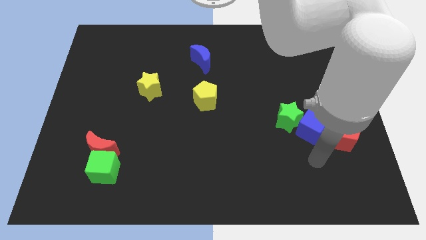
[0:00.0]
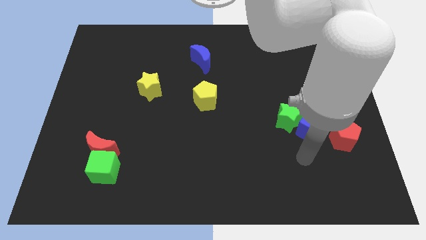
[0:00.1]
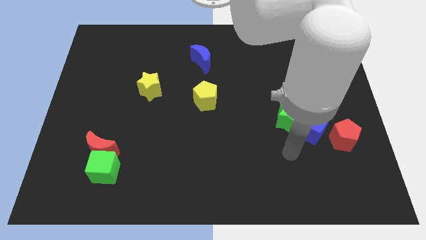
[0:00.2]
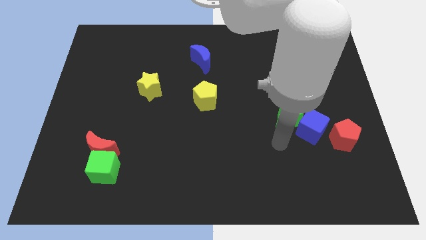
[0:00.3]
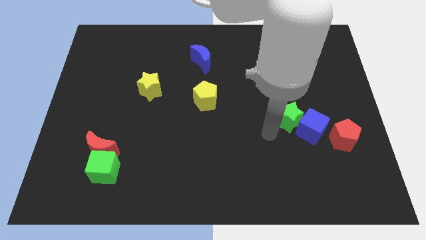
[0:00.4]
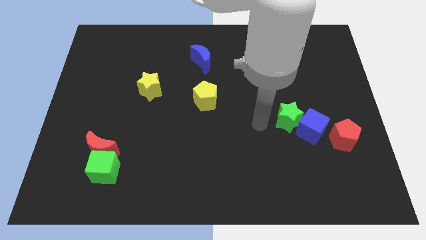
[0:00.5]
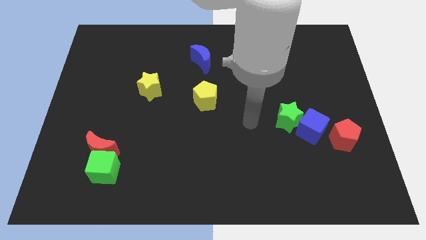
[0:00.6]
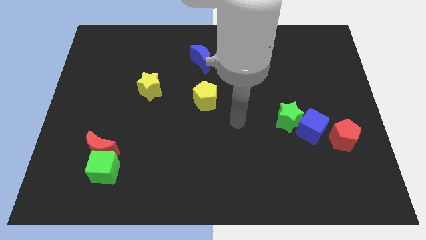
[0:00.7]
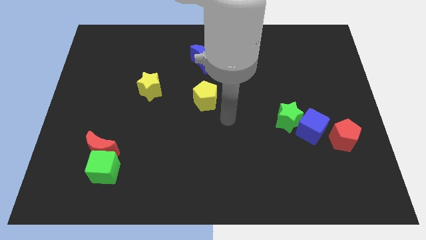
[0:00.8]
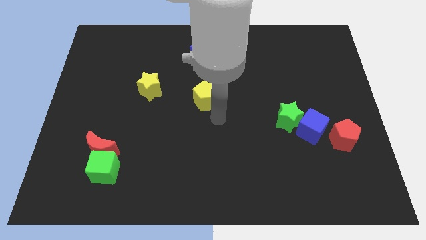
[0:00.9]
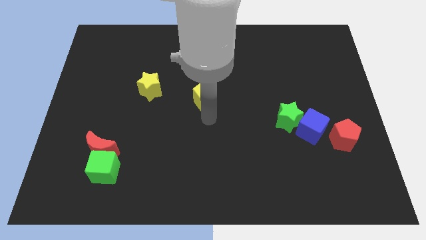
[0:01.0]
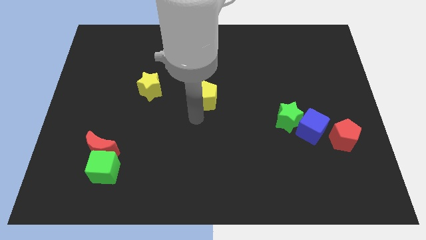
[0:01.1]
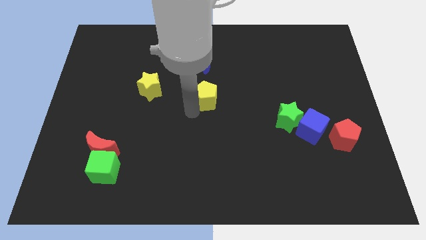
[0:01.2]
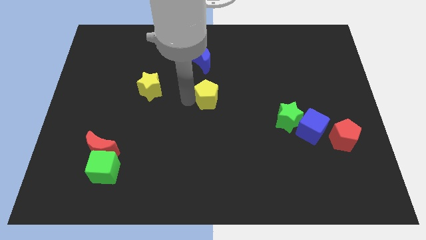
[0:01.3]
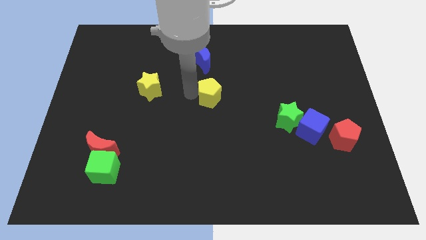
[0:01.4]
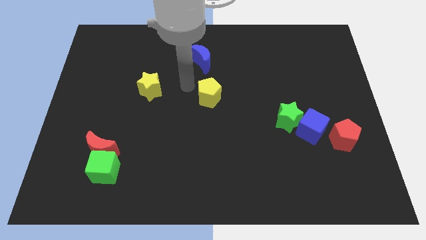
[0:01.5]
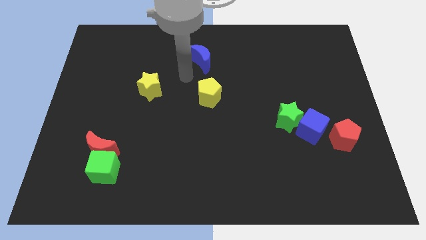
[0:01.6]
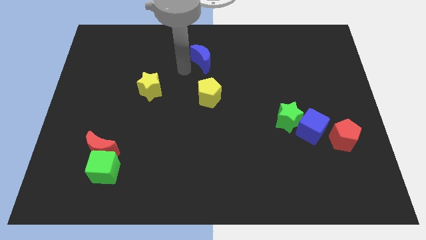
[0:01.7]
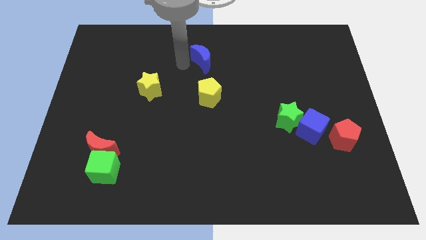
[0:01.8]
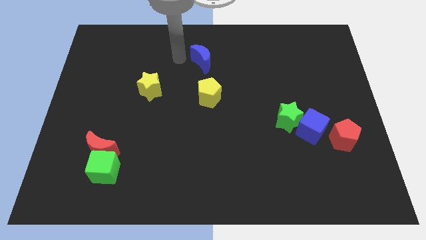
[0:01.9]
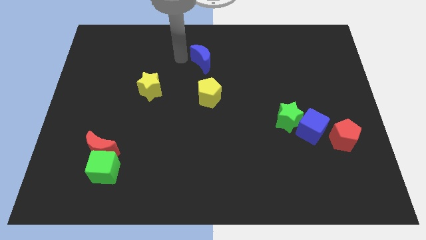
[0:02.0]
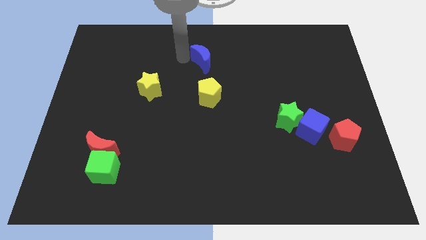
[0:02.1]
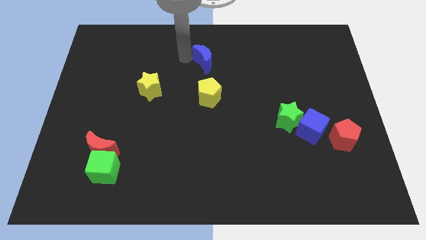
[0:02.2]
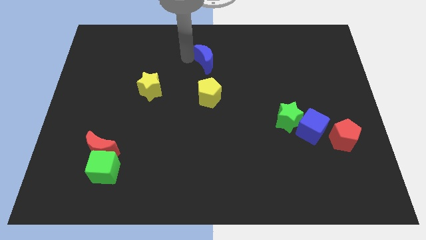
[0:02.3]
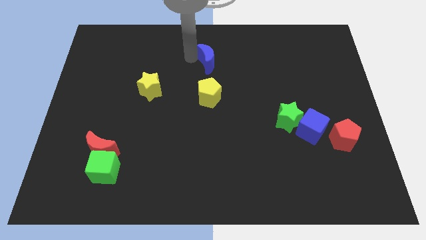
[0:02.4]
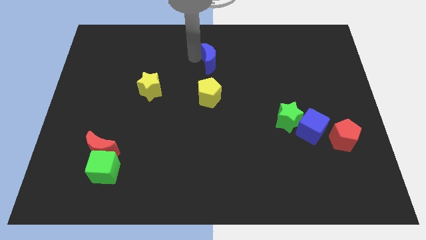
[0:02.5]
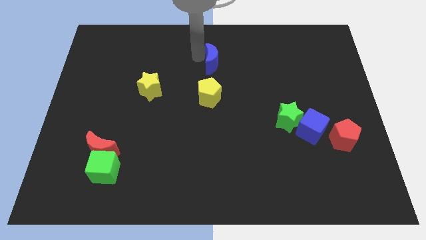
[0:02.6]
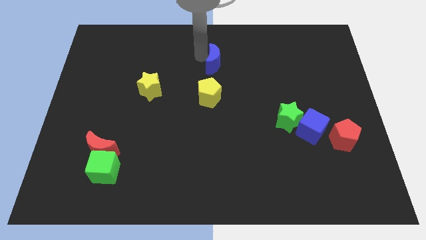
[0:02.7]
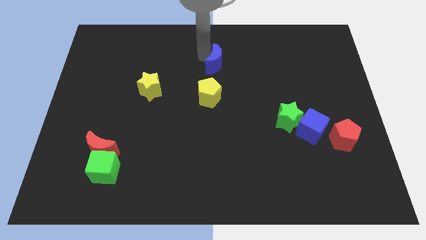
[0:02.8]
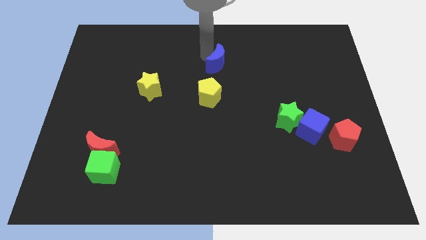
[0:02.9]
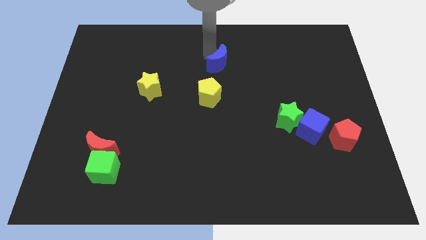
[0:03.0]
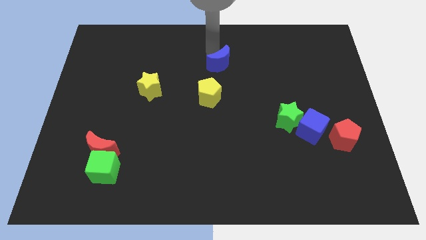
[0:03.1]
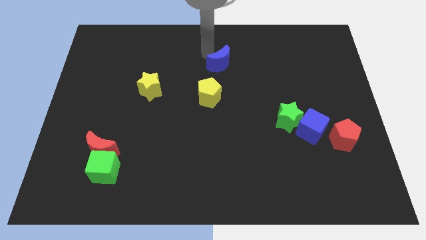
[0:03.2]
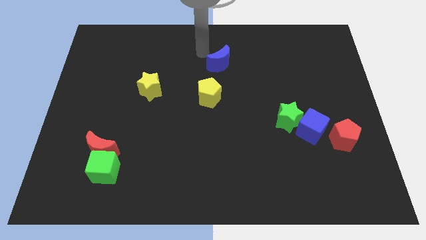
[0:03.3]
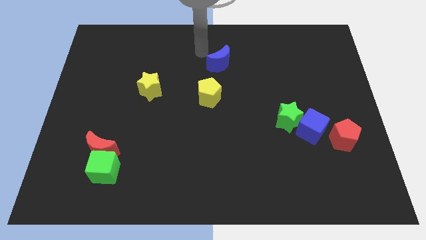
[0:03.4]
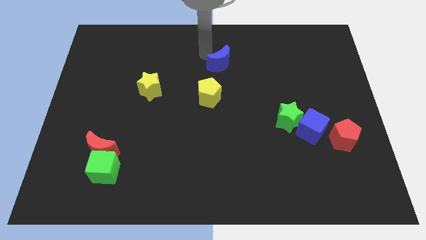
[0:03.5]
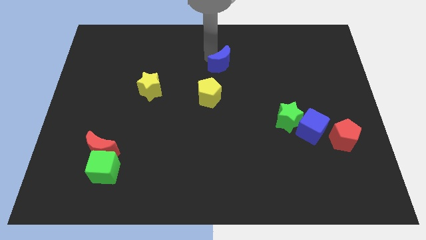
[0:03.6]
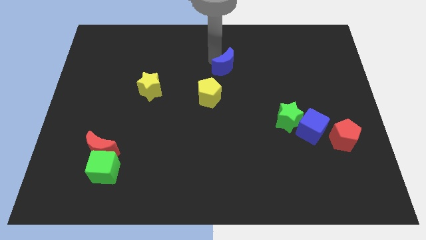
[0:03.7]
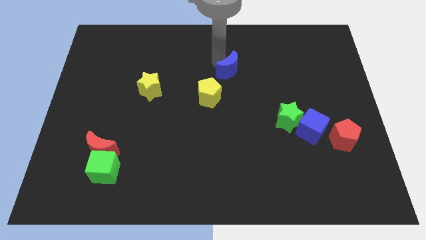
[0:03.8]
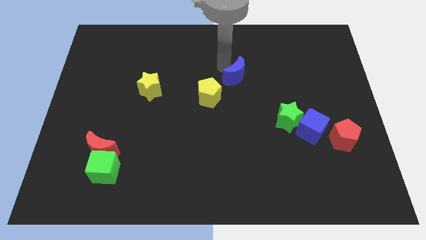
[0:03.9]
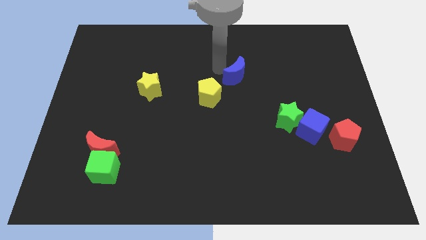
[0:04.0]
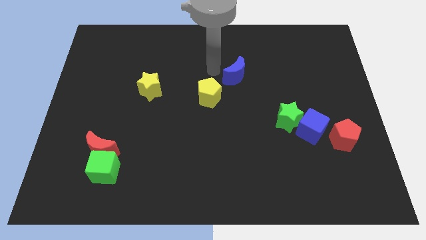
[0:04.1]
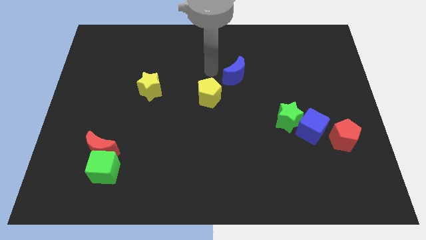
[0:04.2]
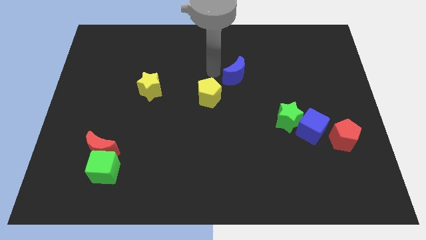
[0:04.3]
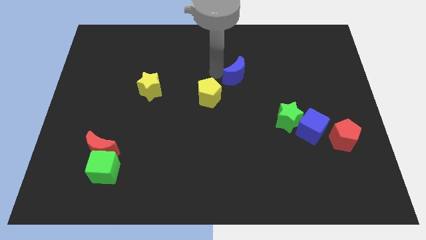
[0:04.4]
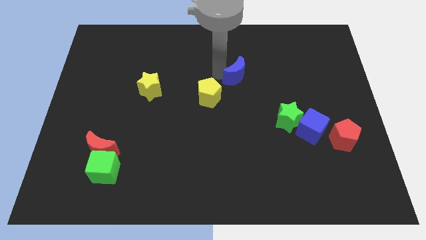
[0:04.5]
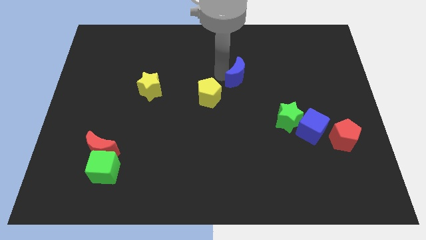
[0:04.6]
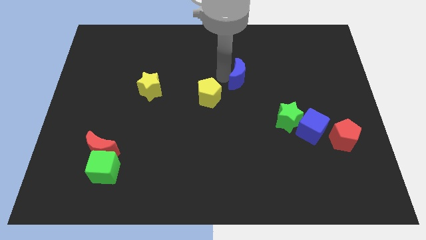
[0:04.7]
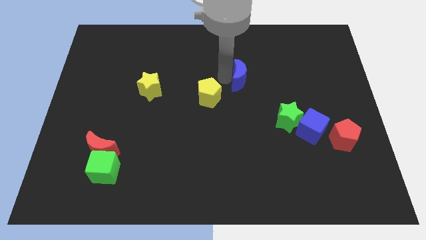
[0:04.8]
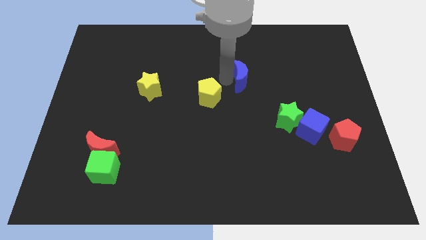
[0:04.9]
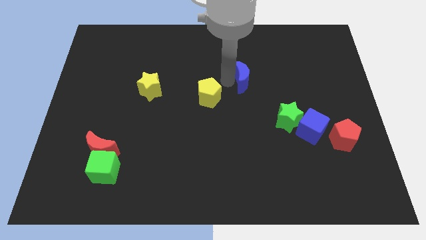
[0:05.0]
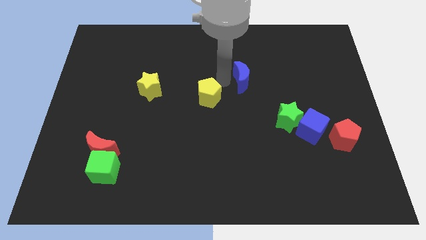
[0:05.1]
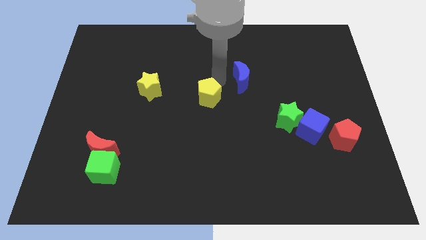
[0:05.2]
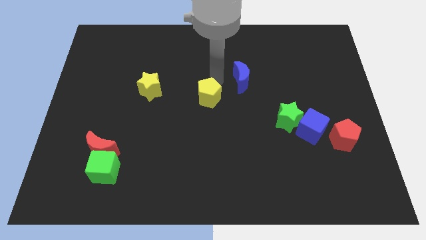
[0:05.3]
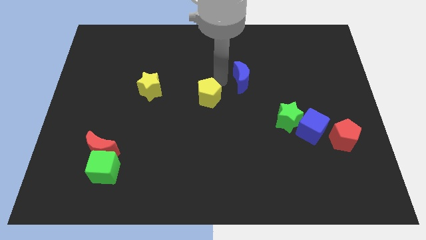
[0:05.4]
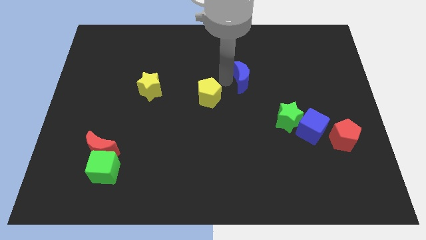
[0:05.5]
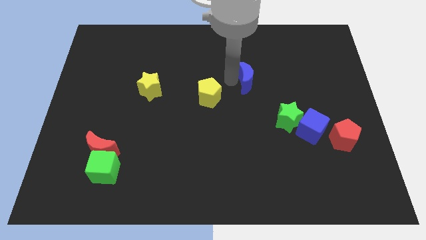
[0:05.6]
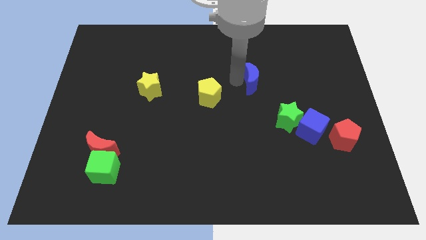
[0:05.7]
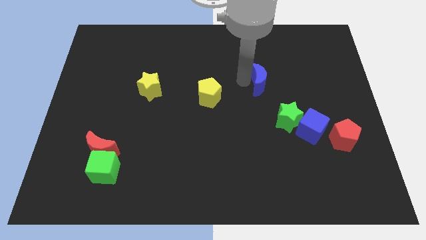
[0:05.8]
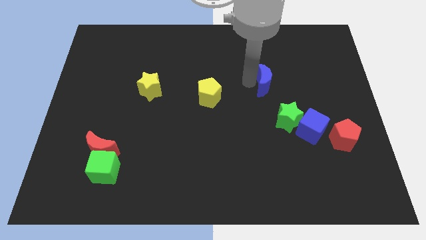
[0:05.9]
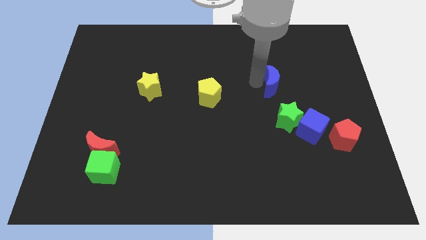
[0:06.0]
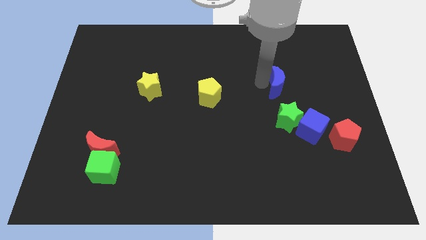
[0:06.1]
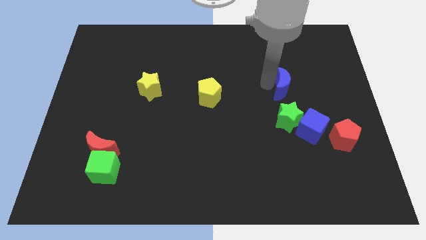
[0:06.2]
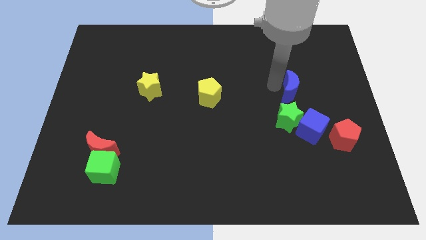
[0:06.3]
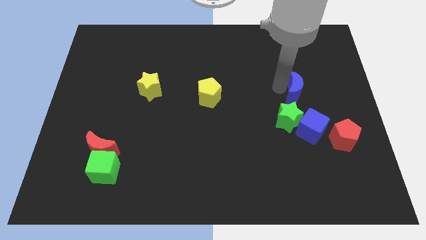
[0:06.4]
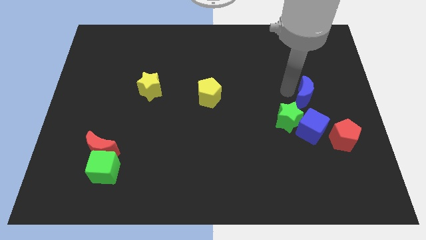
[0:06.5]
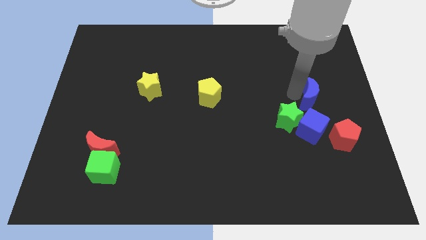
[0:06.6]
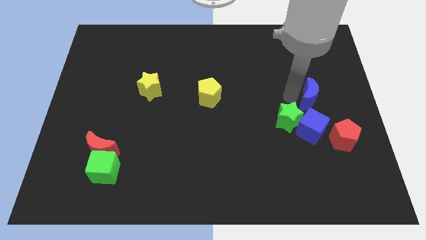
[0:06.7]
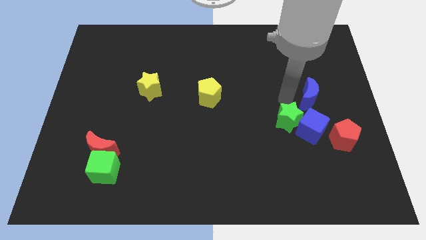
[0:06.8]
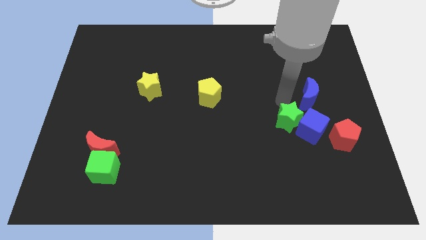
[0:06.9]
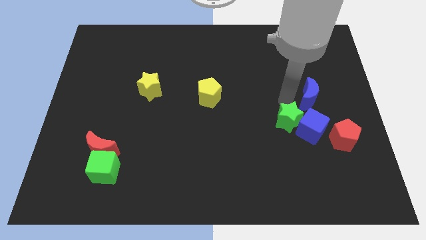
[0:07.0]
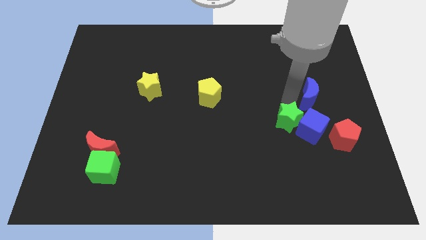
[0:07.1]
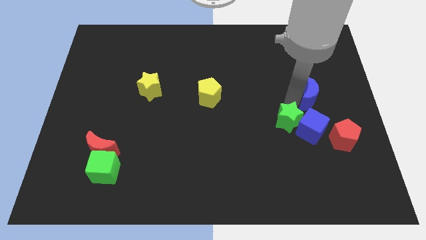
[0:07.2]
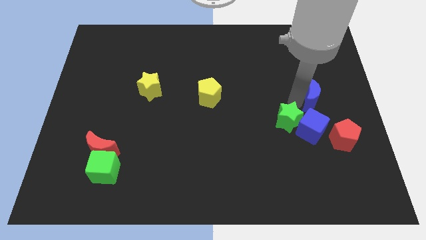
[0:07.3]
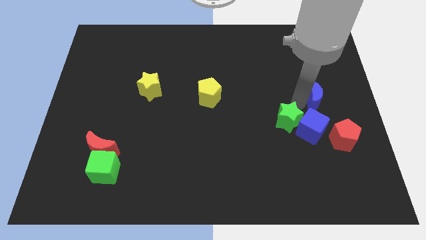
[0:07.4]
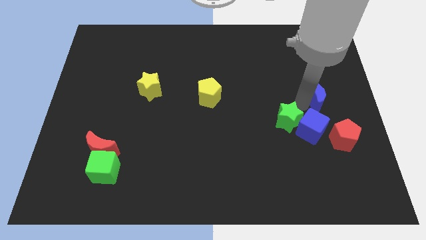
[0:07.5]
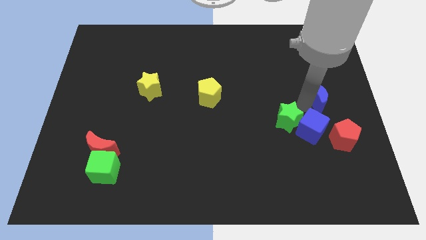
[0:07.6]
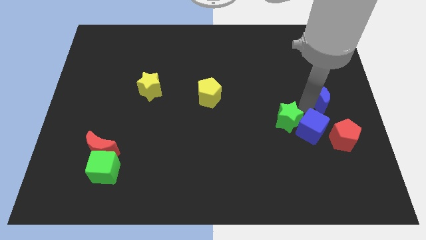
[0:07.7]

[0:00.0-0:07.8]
push the blue moon to the right side
